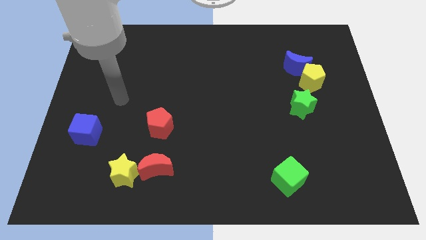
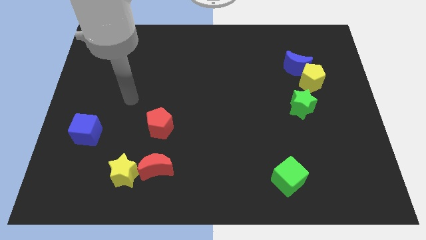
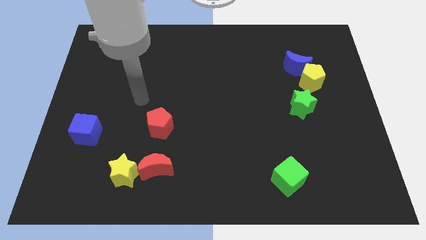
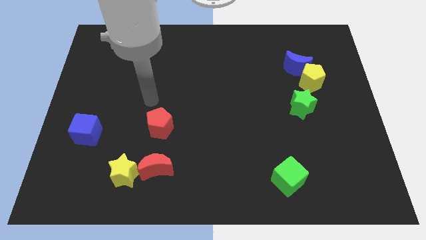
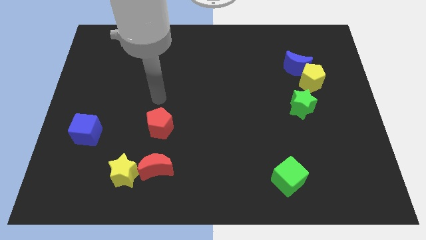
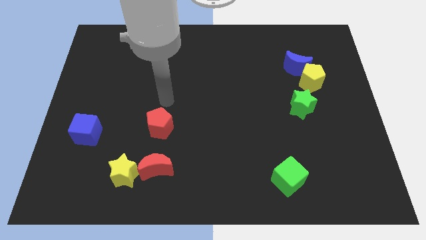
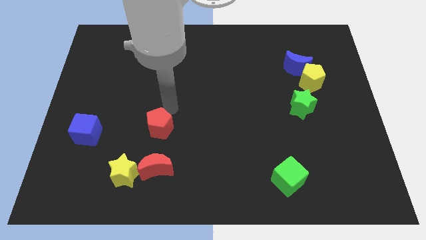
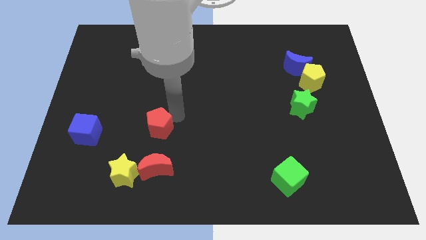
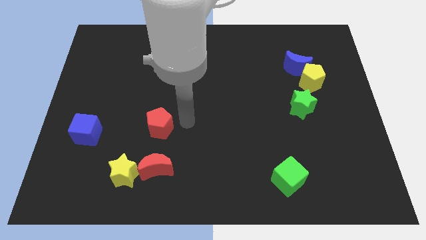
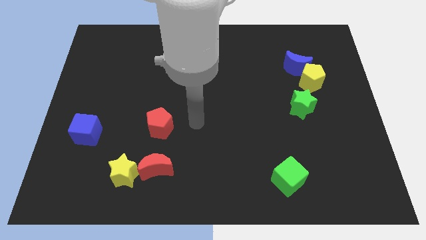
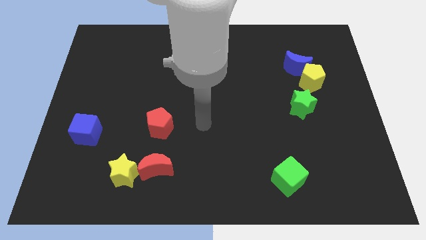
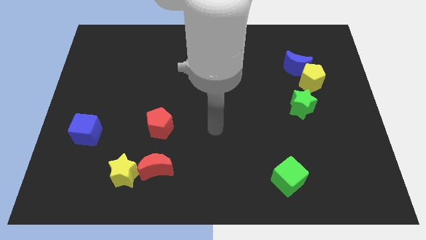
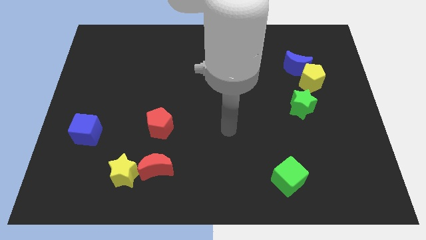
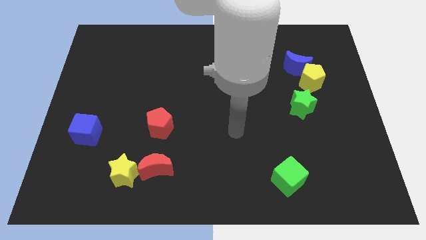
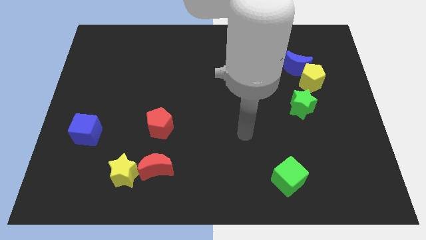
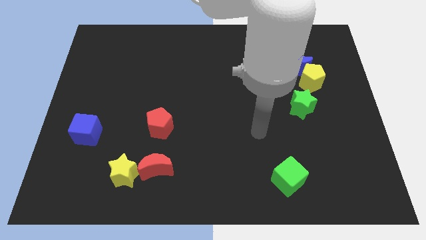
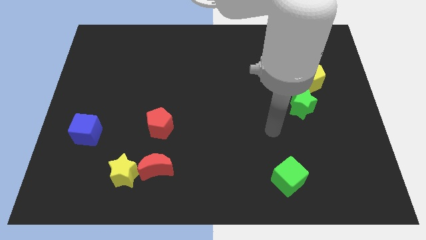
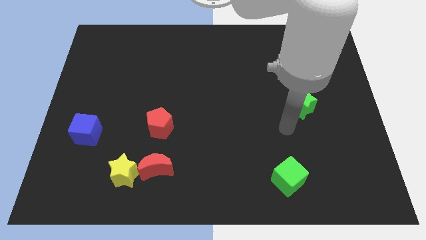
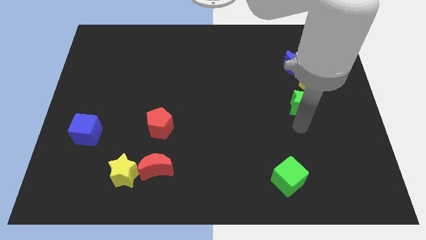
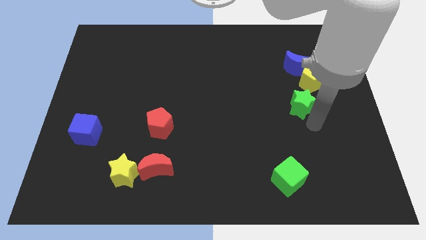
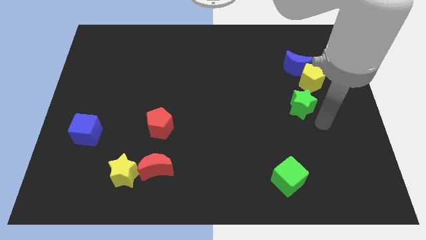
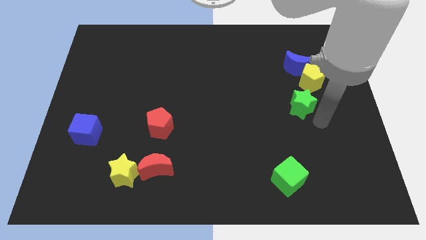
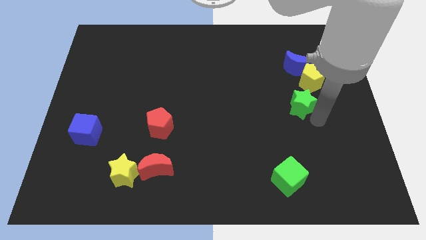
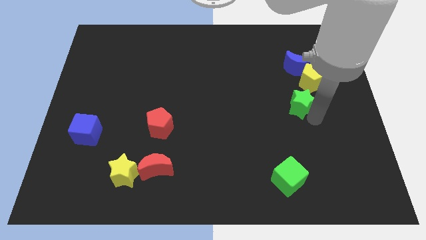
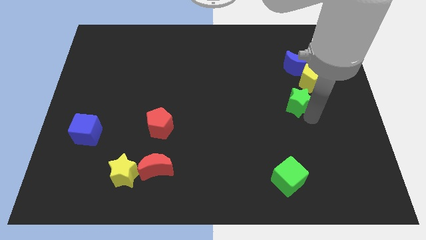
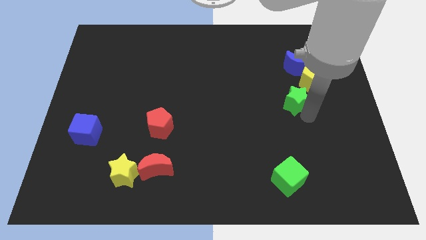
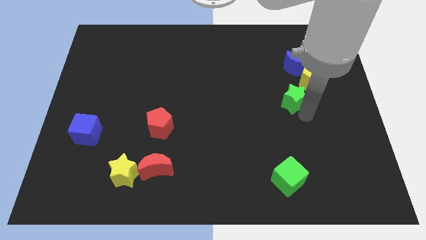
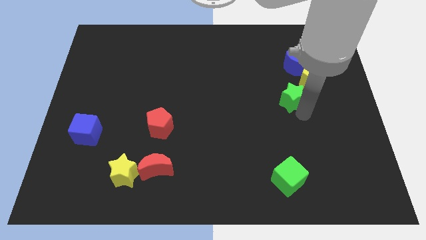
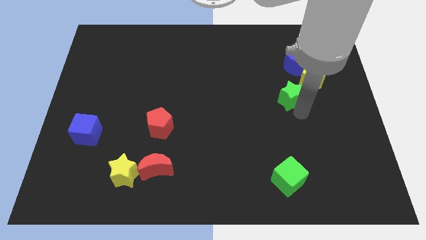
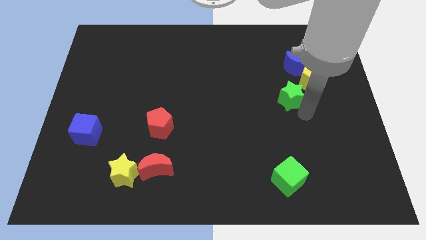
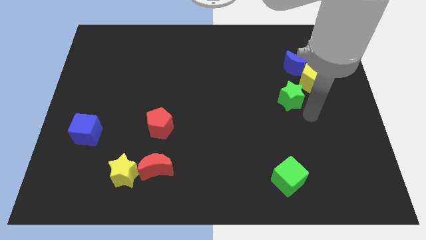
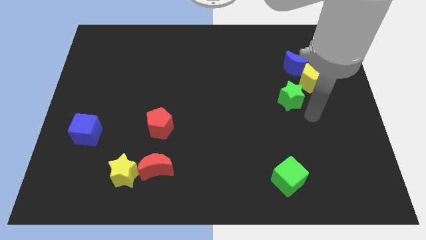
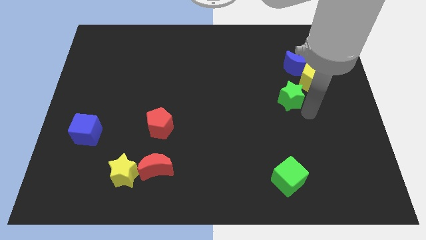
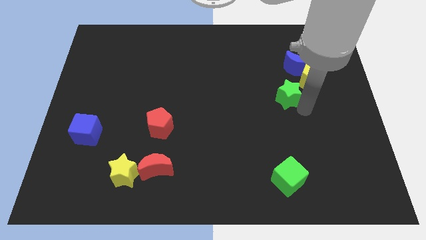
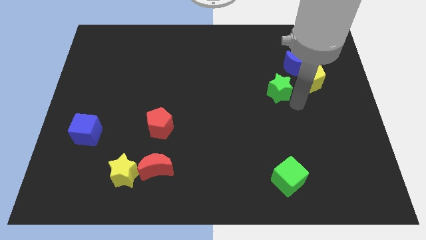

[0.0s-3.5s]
push the green star a little bit upwards and left diagonally

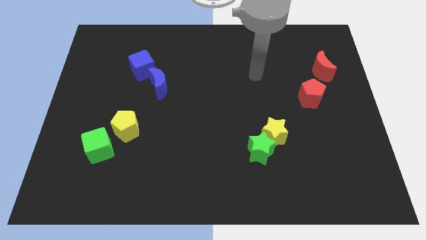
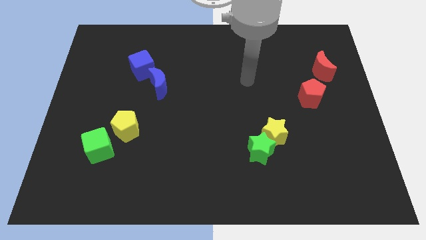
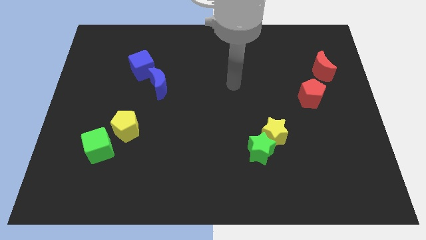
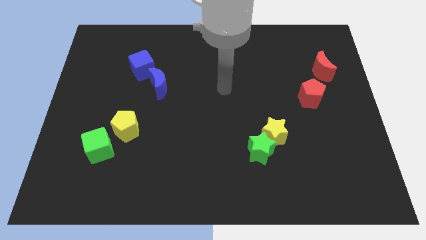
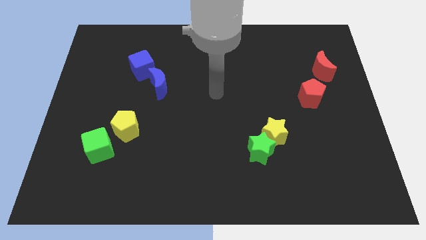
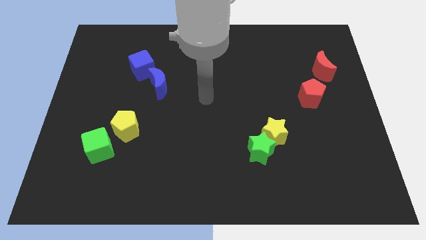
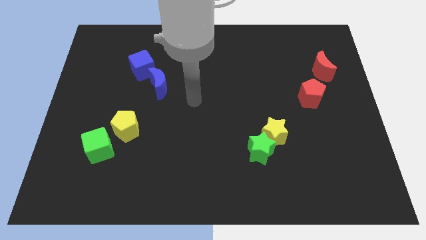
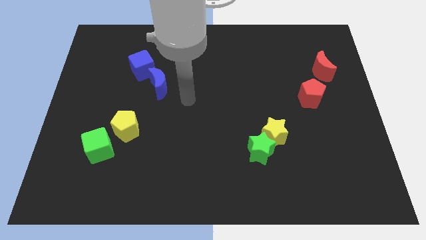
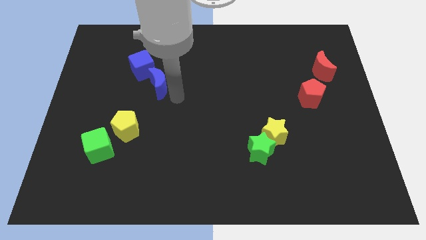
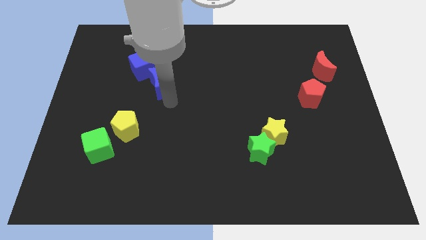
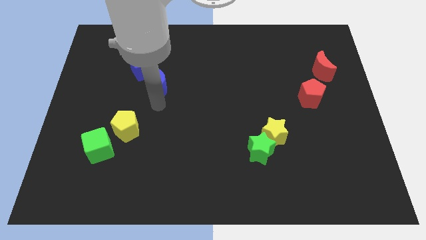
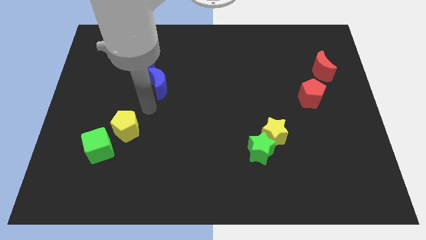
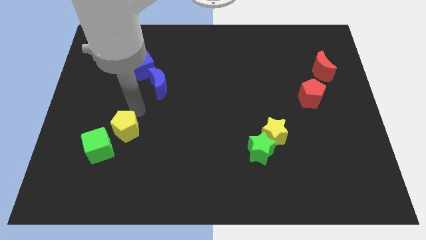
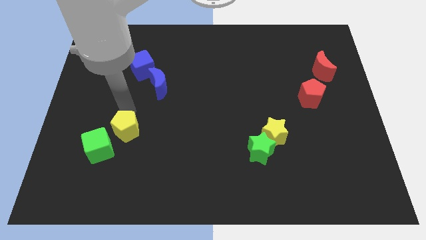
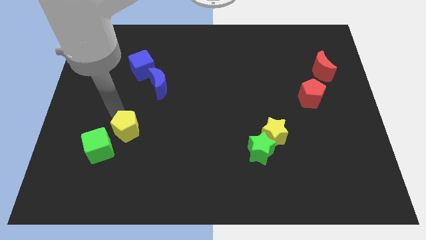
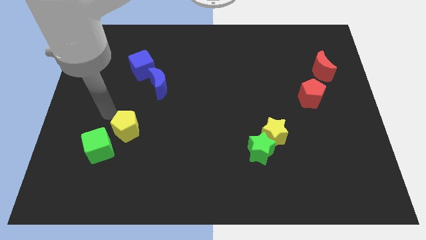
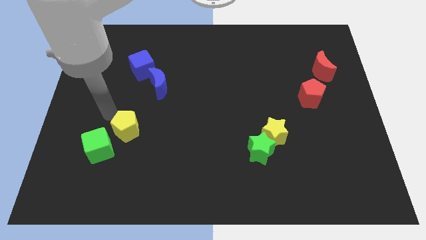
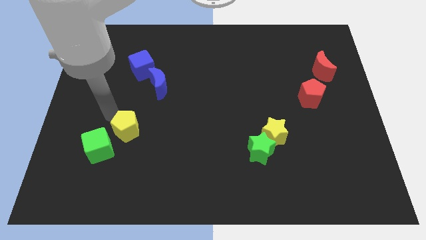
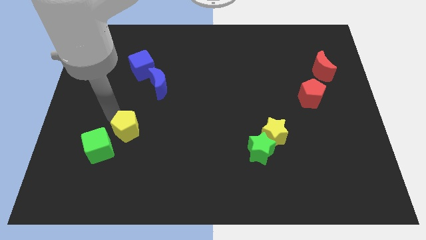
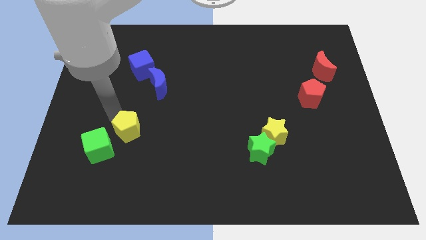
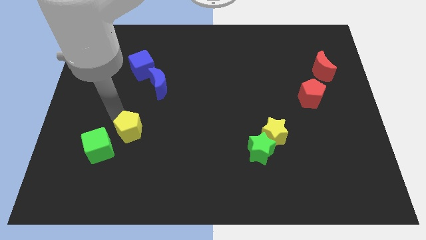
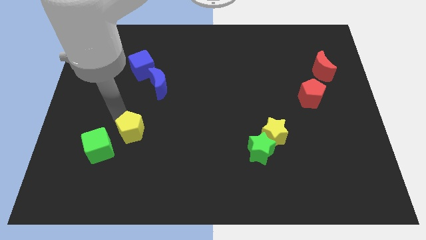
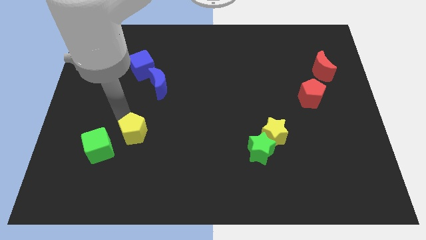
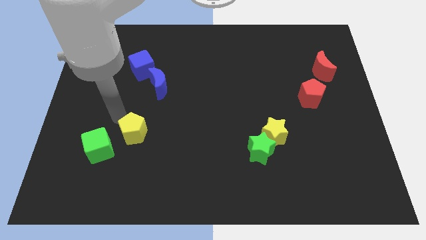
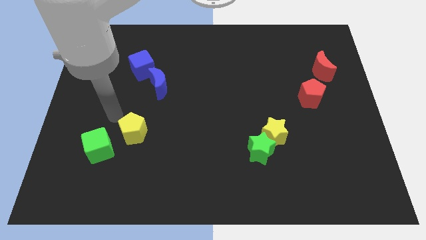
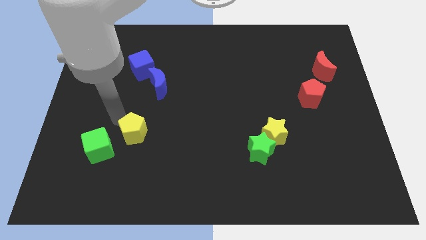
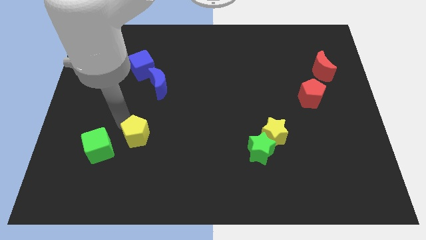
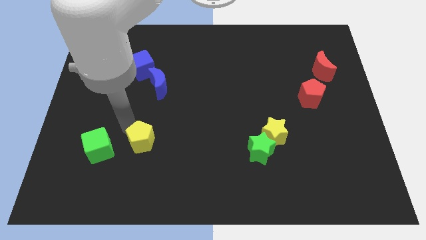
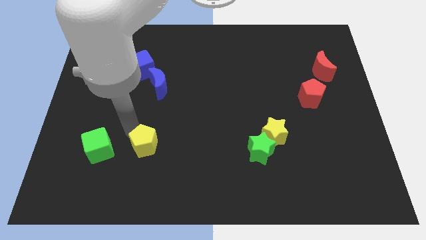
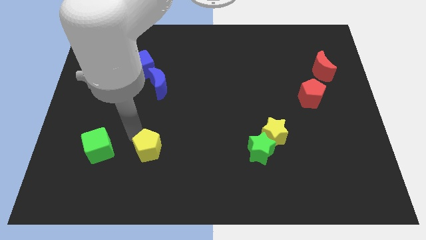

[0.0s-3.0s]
slide the yellow pentagon downwards and to the right a little

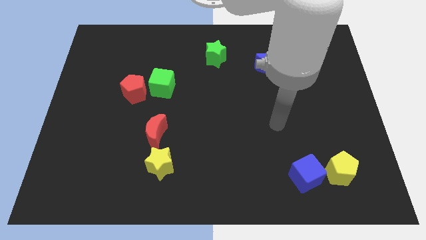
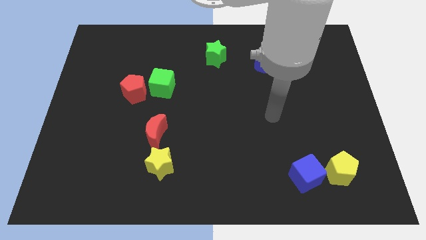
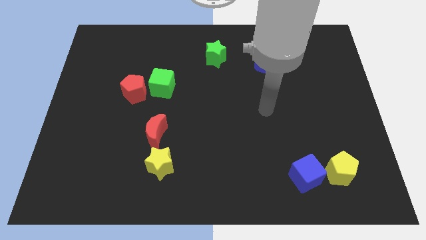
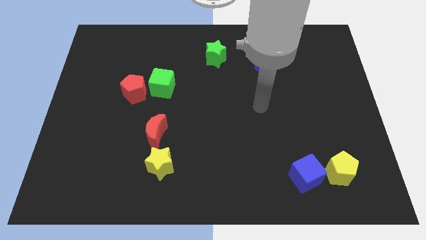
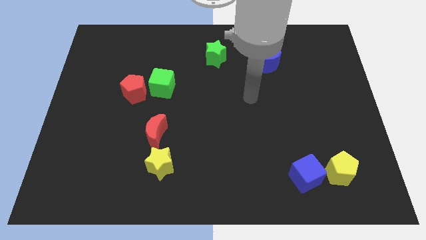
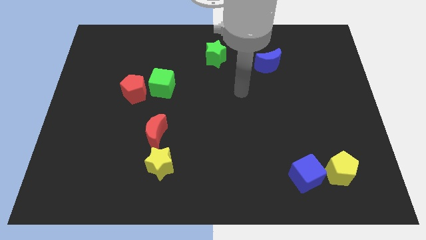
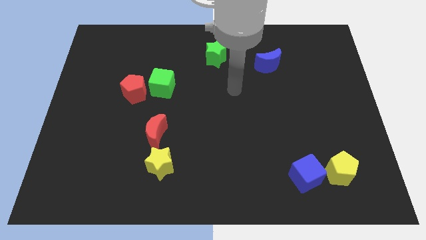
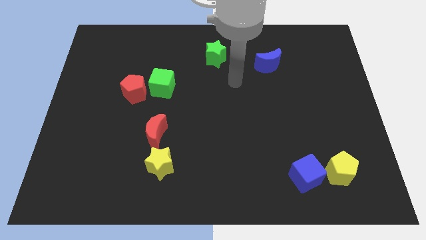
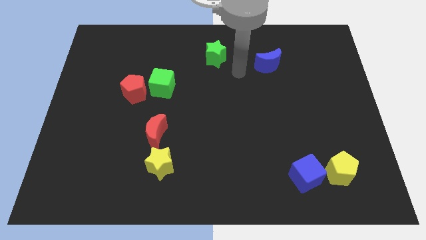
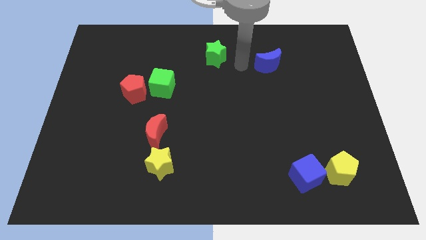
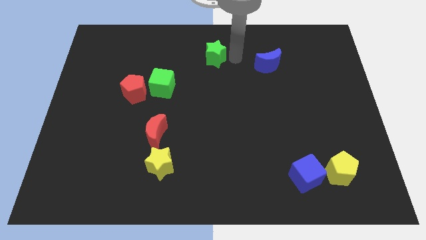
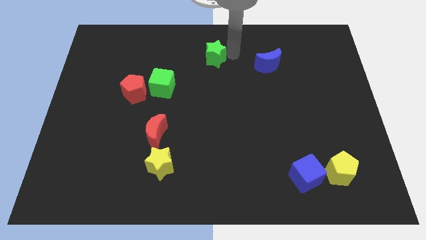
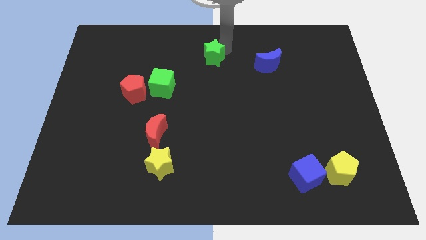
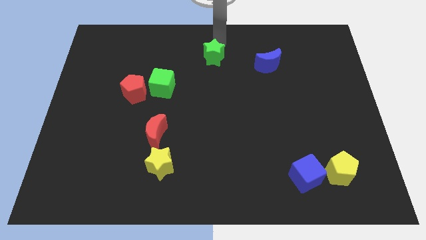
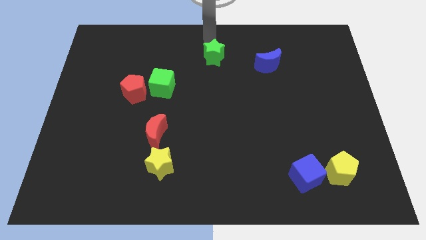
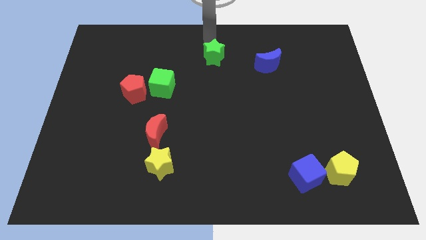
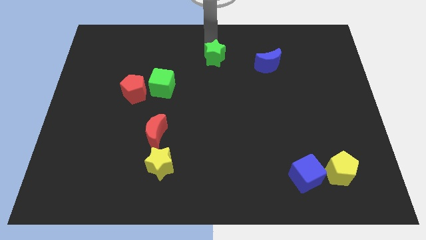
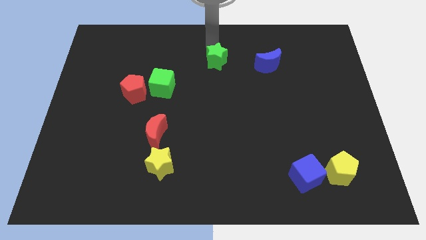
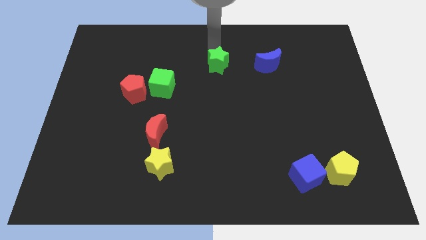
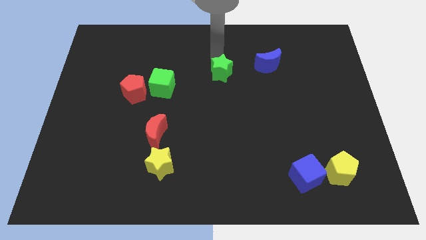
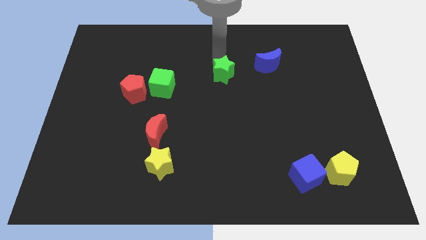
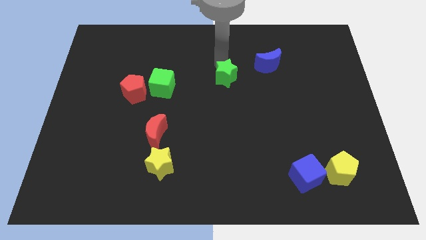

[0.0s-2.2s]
slightly move the green star down
